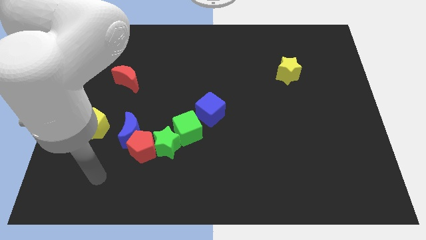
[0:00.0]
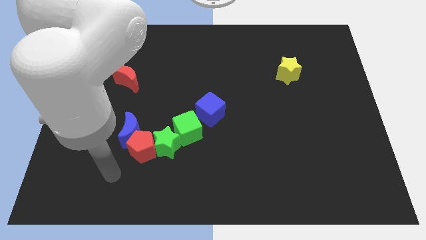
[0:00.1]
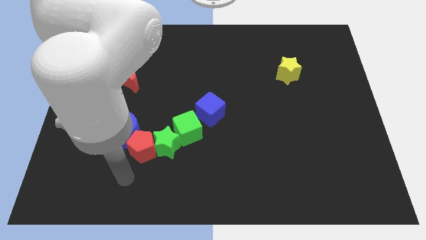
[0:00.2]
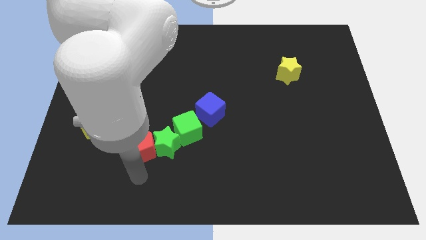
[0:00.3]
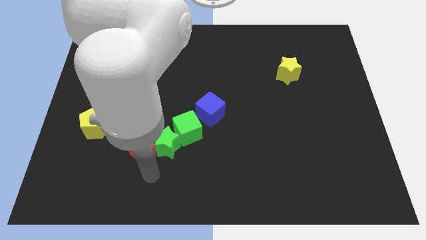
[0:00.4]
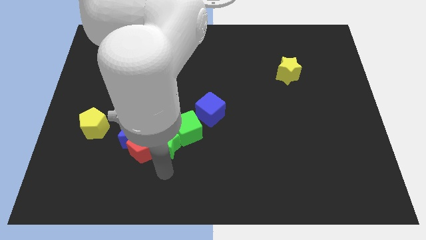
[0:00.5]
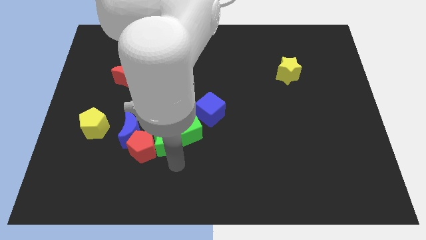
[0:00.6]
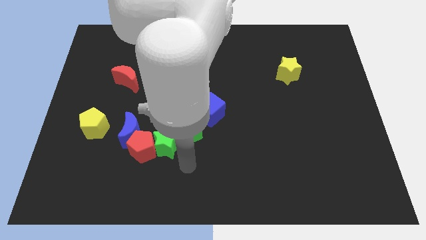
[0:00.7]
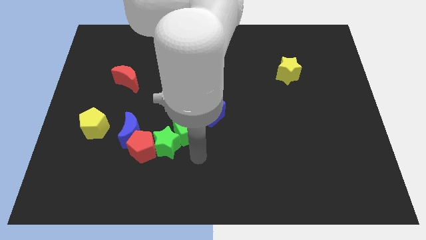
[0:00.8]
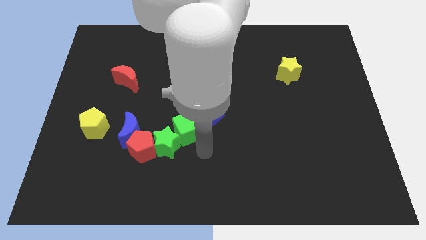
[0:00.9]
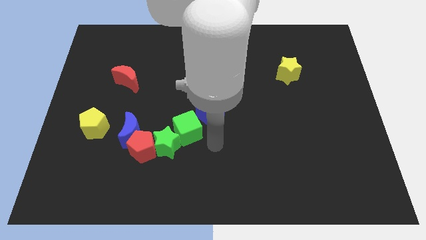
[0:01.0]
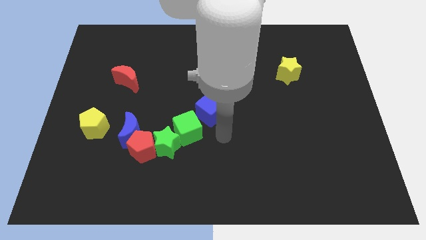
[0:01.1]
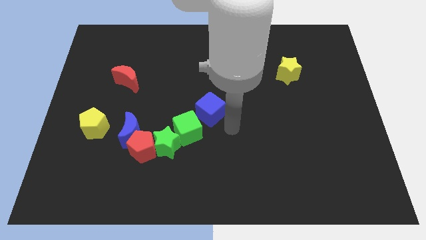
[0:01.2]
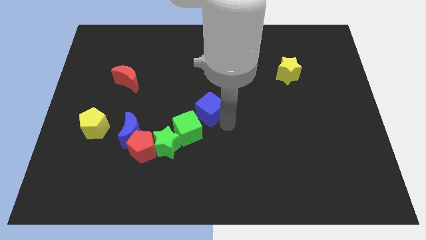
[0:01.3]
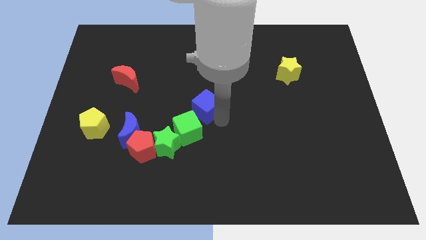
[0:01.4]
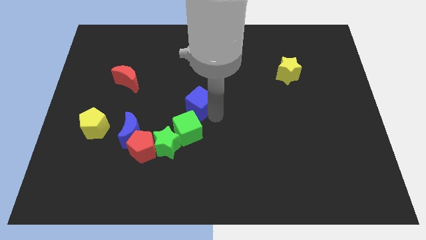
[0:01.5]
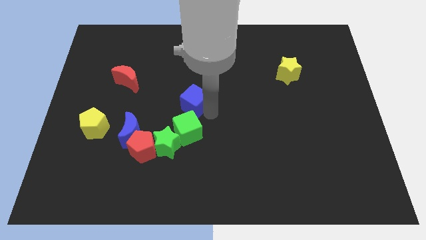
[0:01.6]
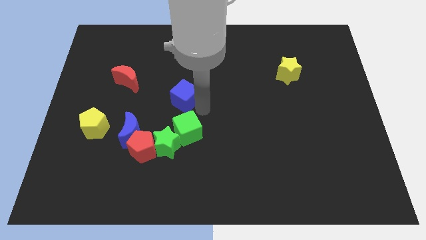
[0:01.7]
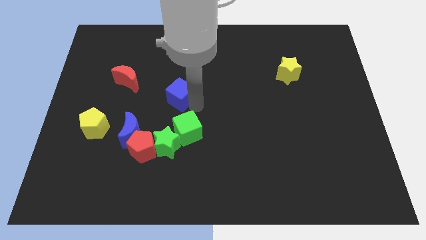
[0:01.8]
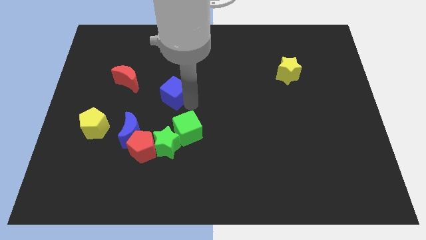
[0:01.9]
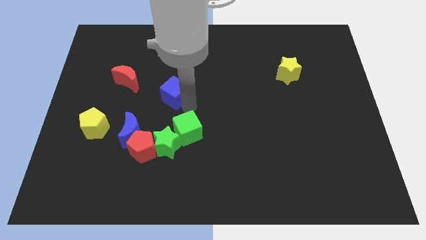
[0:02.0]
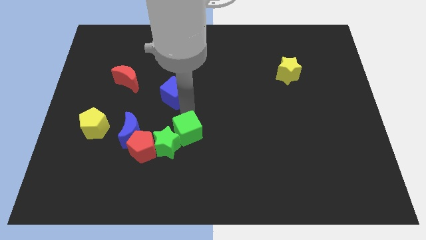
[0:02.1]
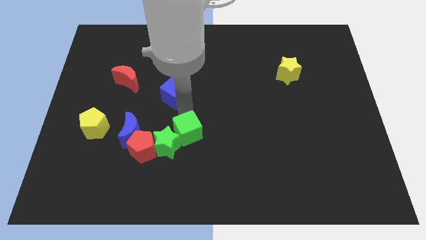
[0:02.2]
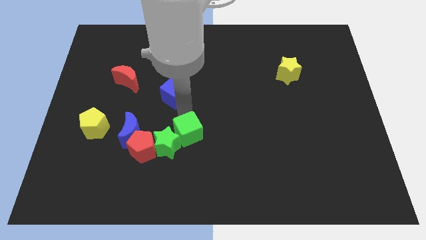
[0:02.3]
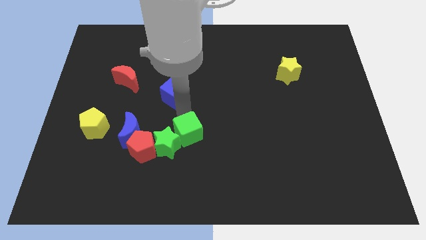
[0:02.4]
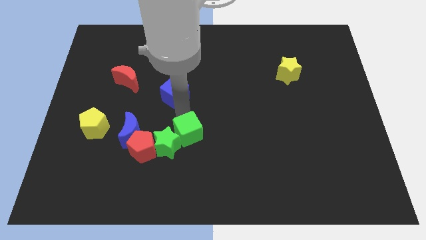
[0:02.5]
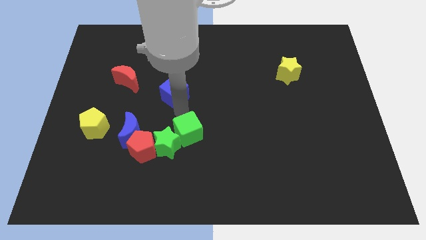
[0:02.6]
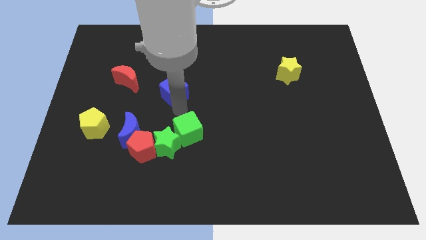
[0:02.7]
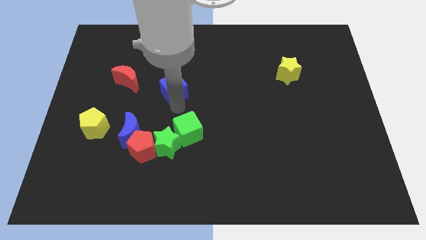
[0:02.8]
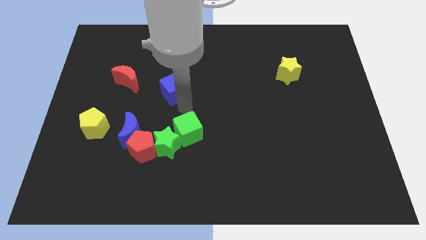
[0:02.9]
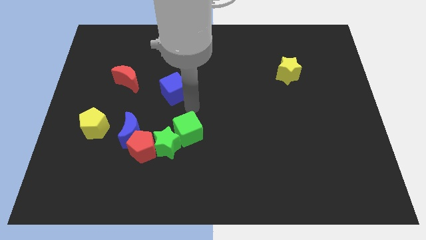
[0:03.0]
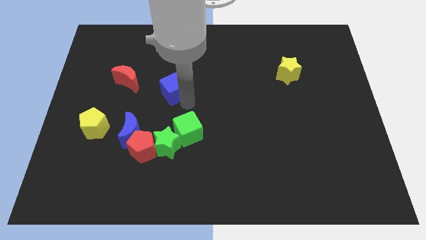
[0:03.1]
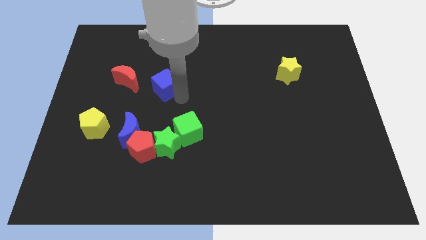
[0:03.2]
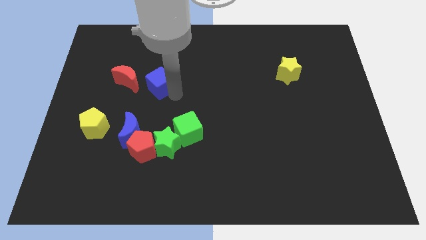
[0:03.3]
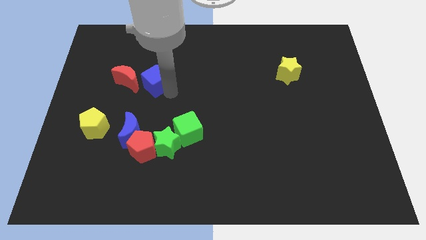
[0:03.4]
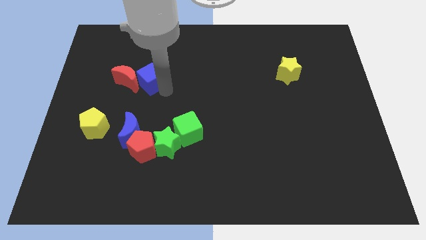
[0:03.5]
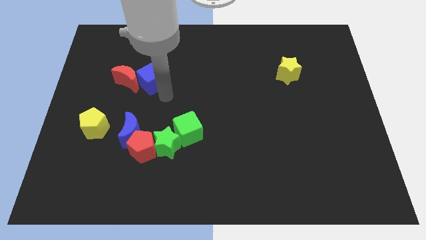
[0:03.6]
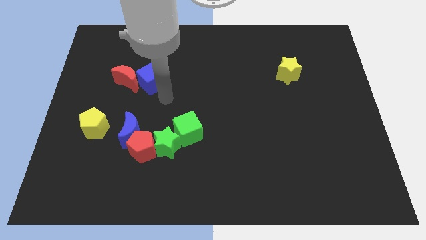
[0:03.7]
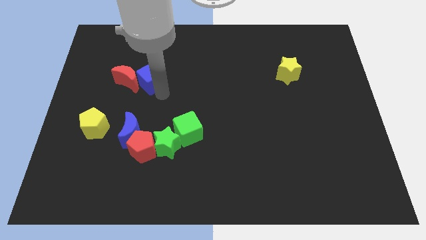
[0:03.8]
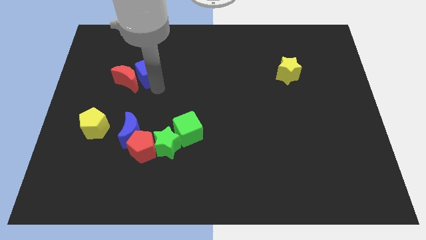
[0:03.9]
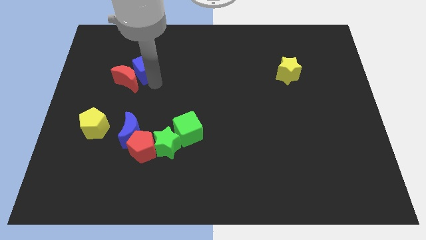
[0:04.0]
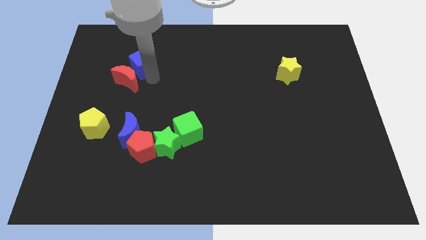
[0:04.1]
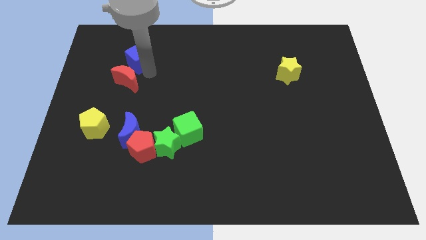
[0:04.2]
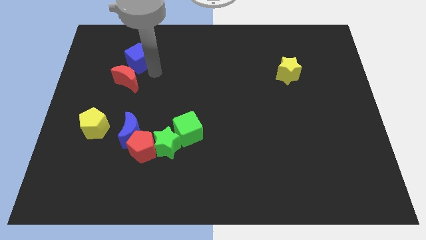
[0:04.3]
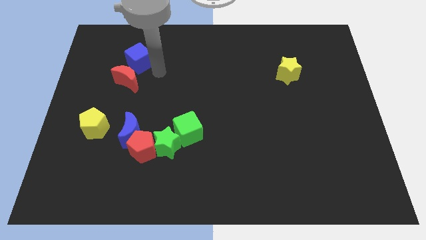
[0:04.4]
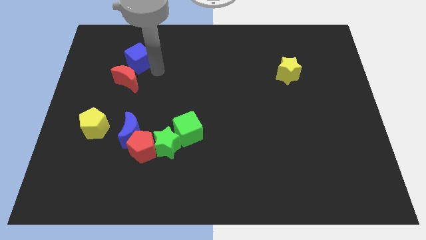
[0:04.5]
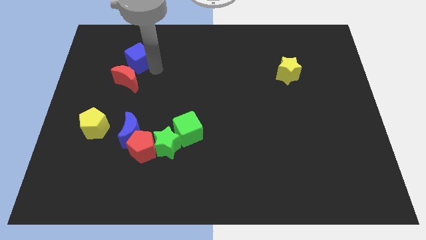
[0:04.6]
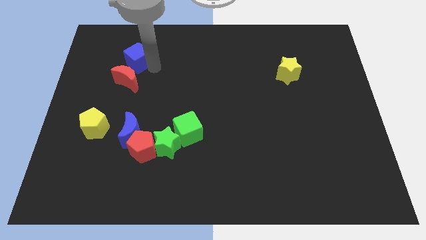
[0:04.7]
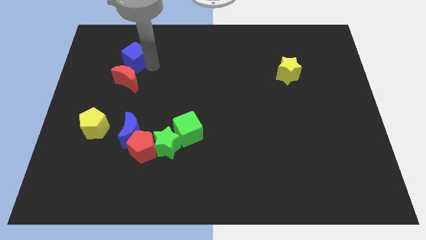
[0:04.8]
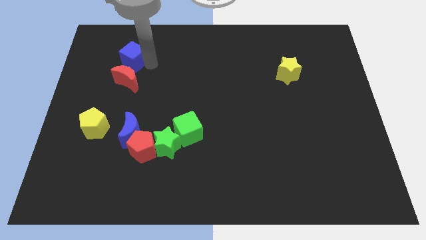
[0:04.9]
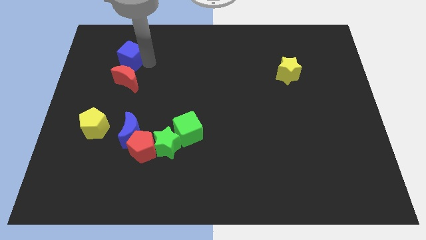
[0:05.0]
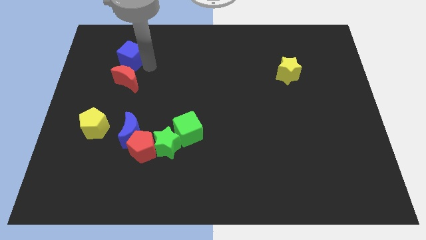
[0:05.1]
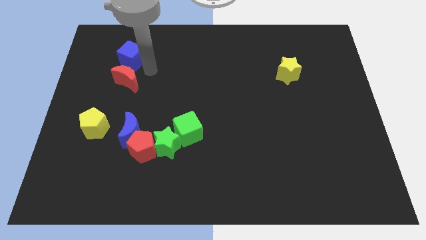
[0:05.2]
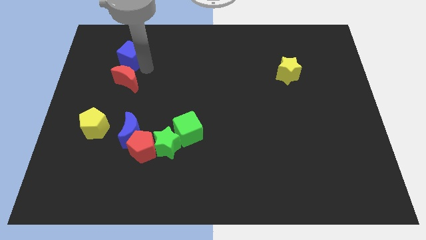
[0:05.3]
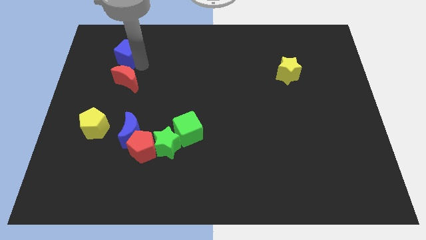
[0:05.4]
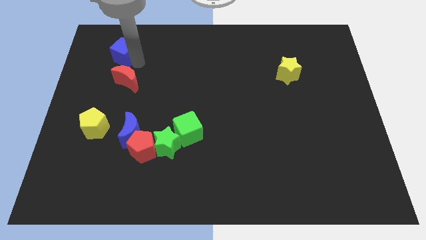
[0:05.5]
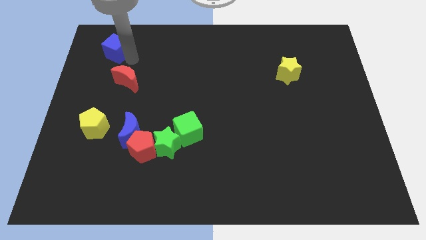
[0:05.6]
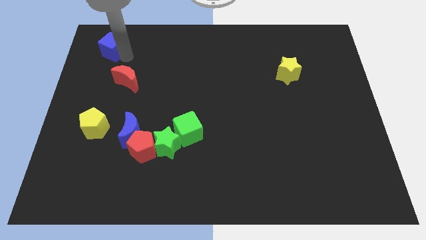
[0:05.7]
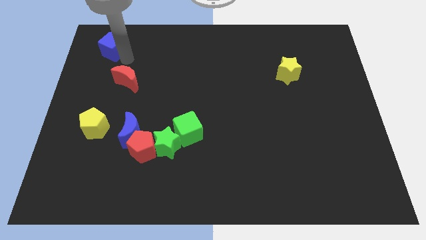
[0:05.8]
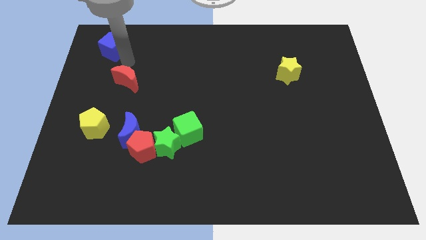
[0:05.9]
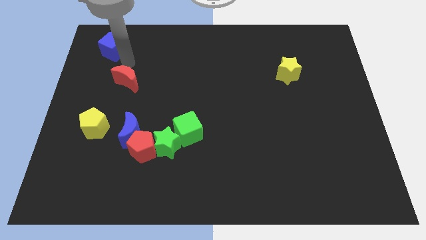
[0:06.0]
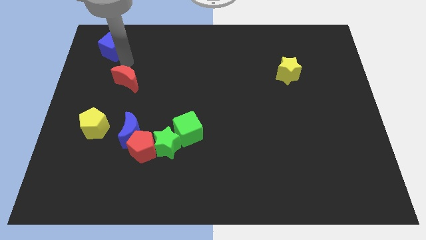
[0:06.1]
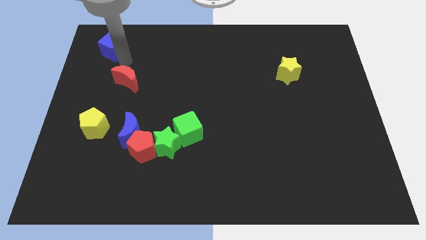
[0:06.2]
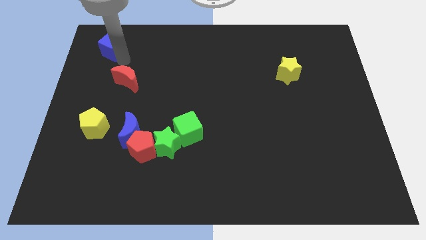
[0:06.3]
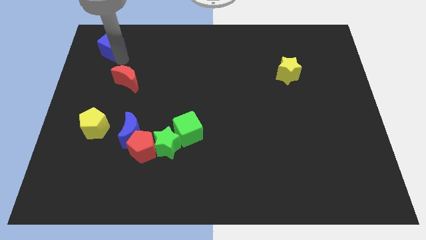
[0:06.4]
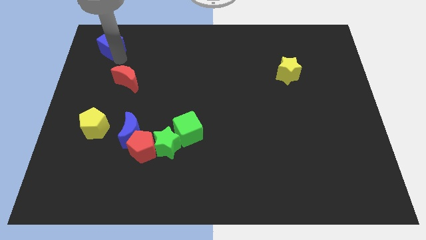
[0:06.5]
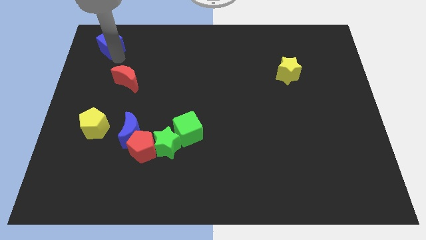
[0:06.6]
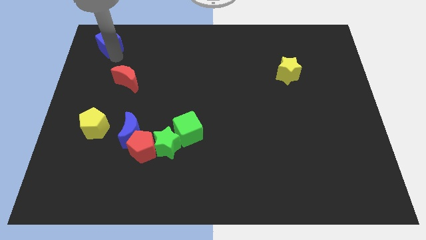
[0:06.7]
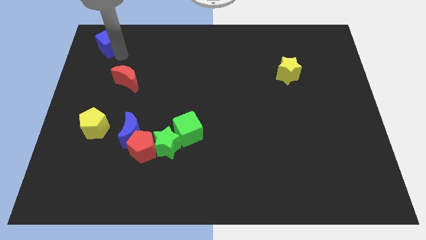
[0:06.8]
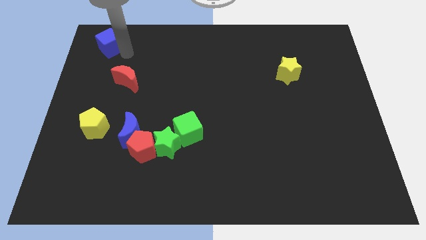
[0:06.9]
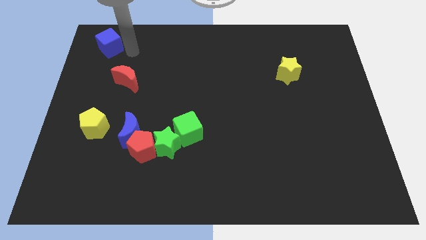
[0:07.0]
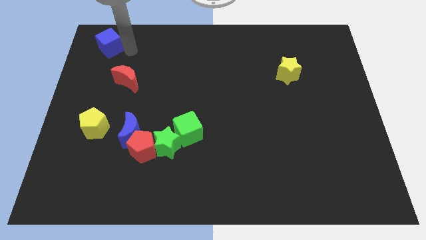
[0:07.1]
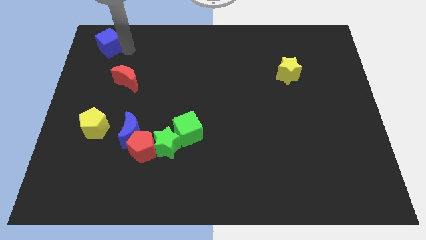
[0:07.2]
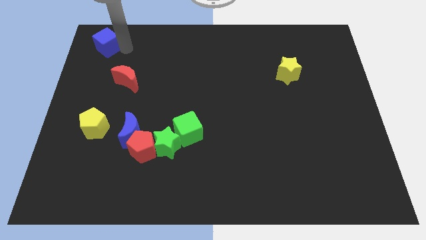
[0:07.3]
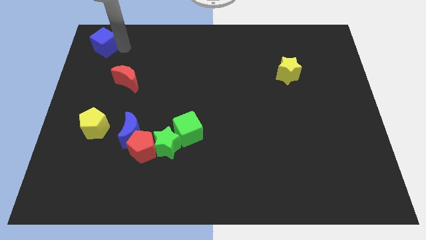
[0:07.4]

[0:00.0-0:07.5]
slide the blue cube to the top left
